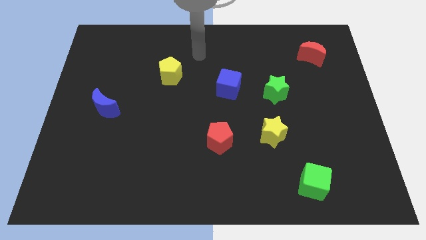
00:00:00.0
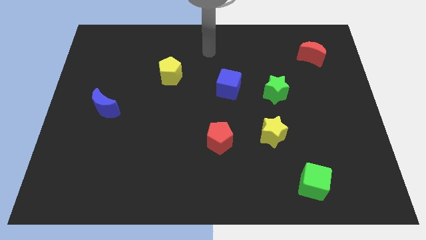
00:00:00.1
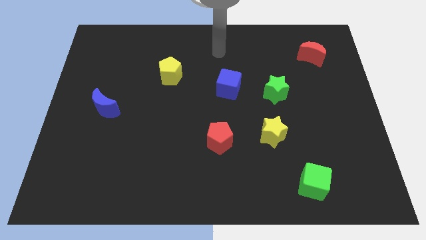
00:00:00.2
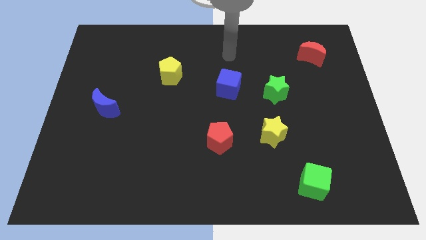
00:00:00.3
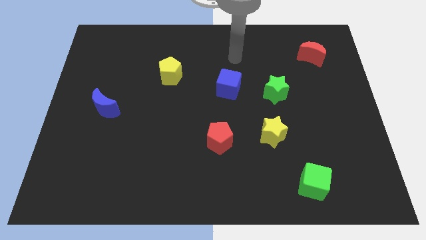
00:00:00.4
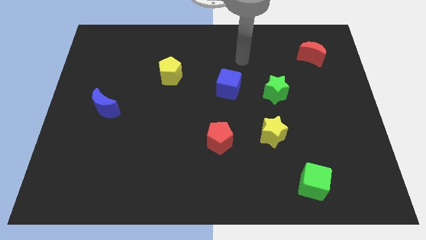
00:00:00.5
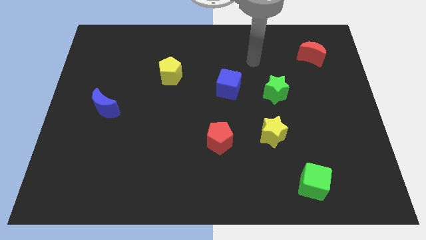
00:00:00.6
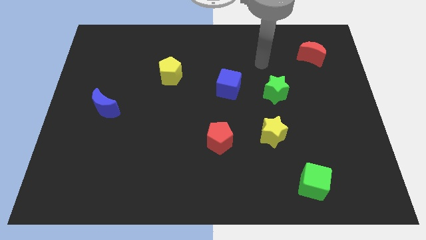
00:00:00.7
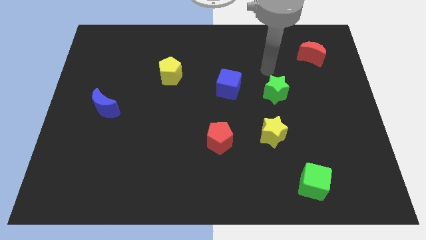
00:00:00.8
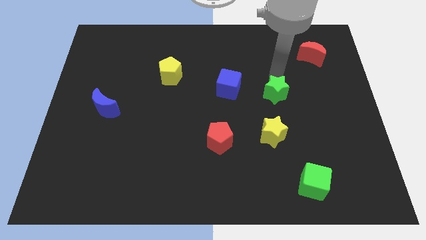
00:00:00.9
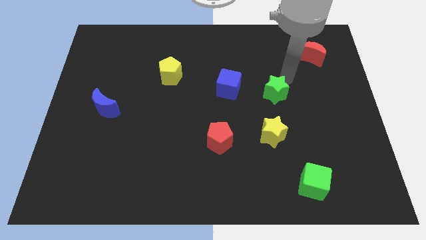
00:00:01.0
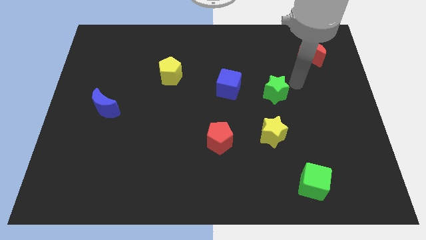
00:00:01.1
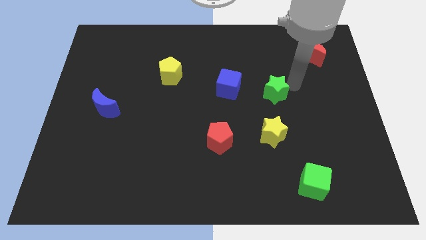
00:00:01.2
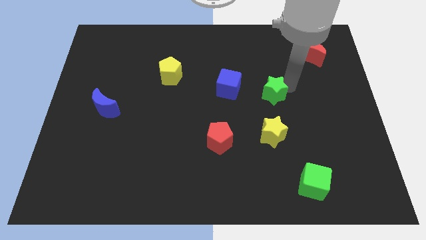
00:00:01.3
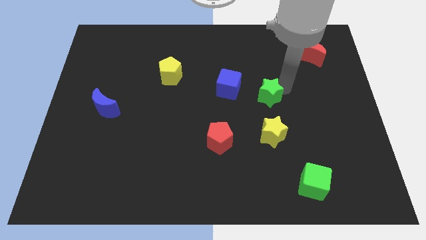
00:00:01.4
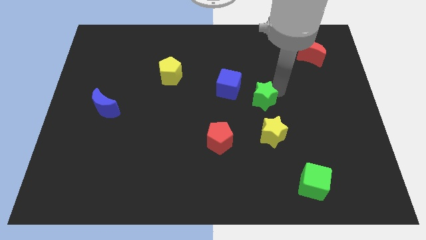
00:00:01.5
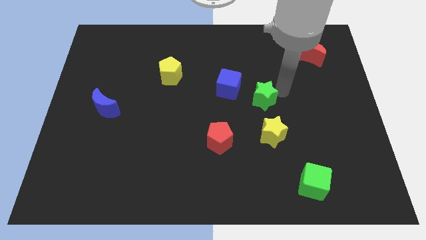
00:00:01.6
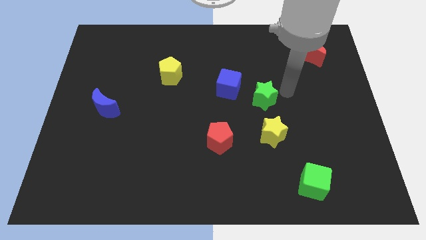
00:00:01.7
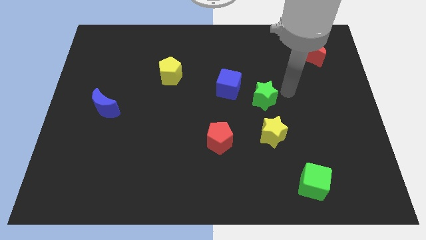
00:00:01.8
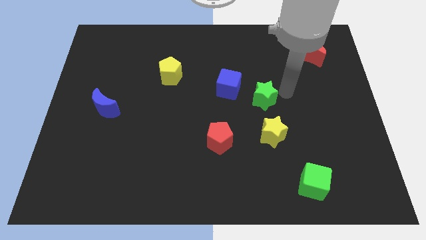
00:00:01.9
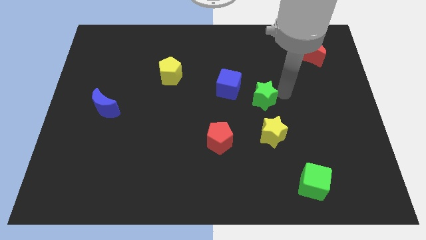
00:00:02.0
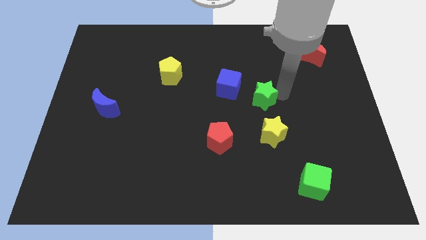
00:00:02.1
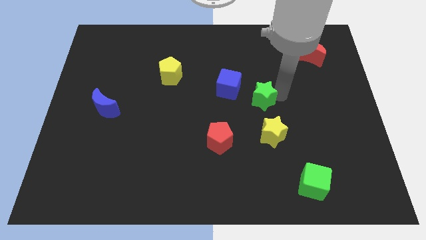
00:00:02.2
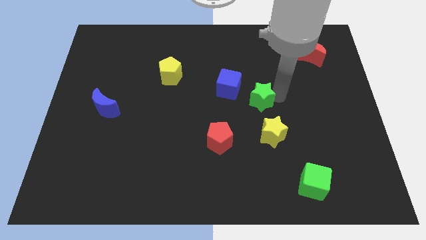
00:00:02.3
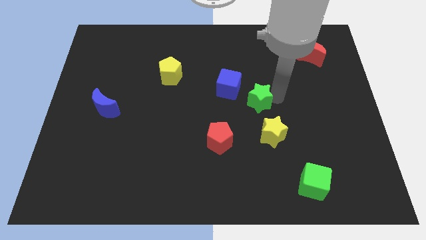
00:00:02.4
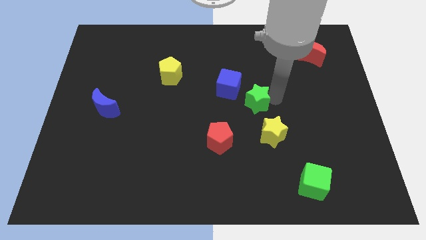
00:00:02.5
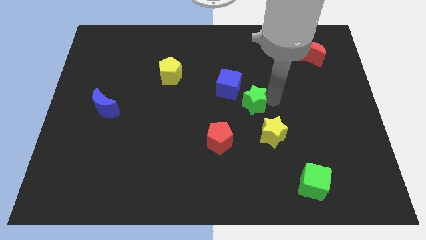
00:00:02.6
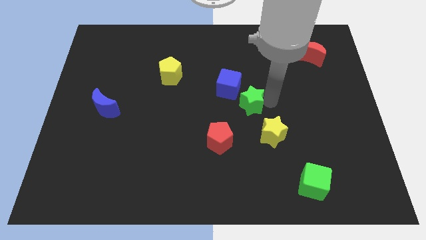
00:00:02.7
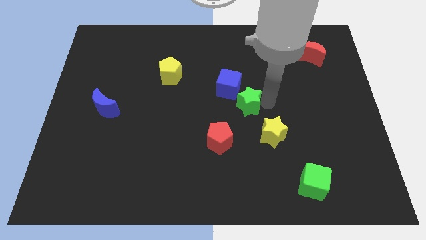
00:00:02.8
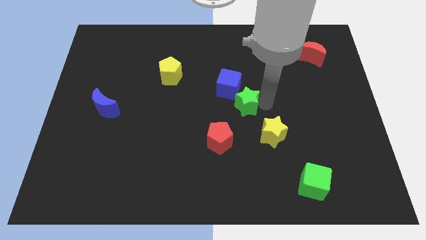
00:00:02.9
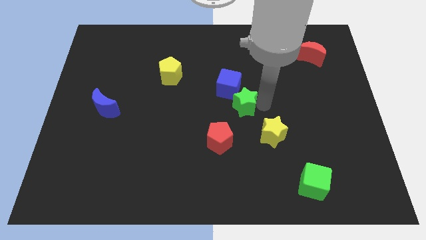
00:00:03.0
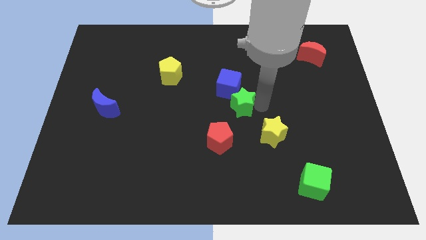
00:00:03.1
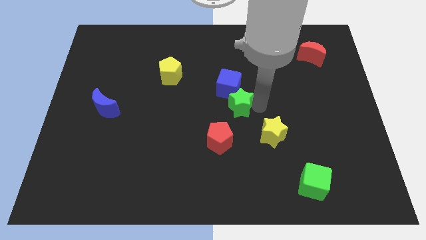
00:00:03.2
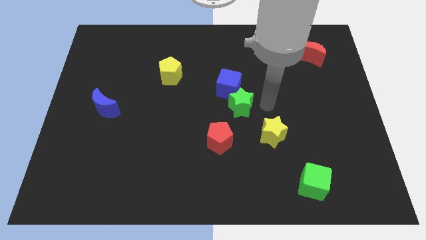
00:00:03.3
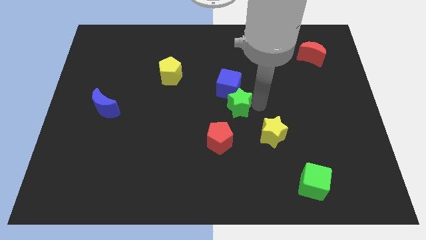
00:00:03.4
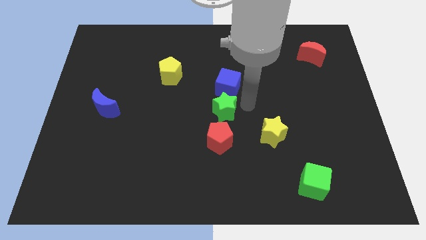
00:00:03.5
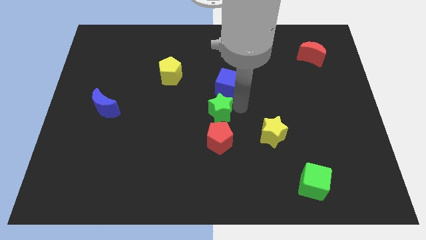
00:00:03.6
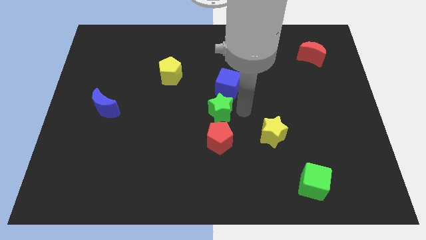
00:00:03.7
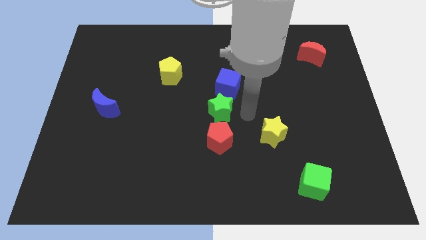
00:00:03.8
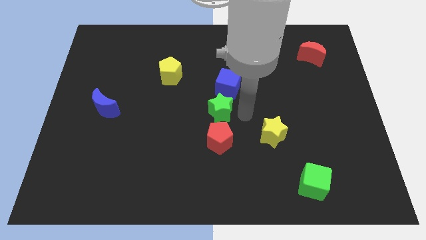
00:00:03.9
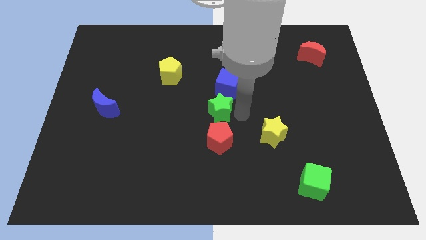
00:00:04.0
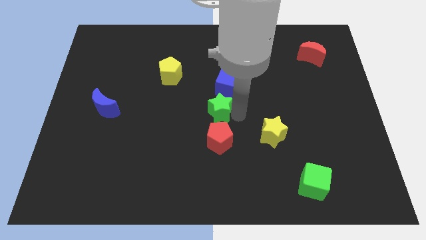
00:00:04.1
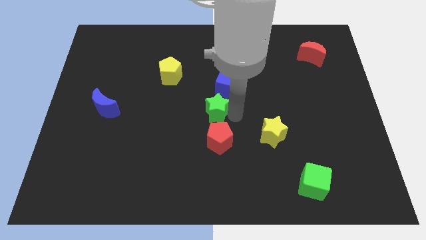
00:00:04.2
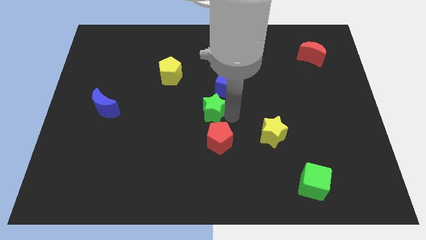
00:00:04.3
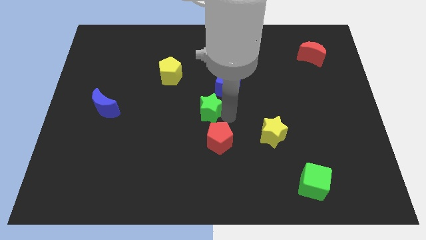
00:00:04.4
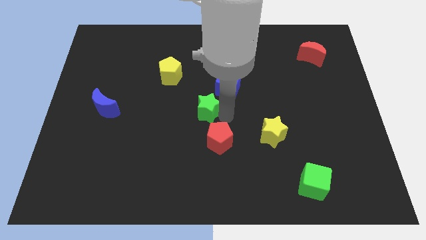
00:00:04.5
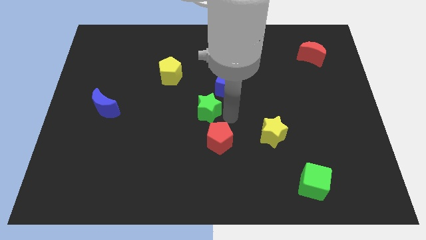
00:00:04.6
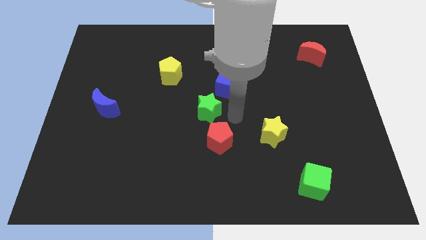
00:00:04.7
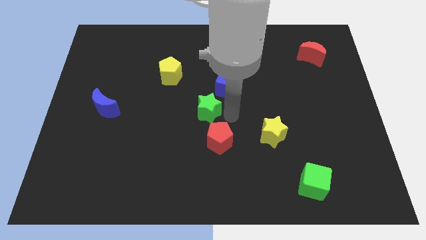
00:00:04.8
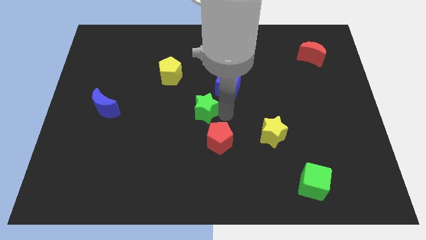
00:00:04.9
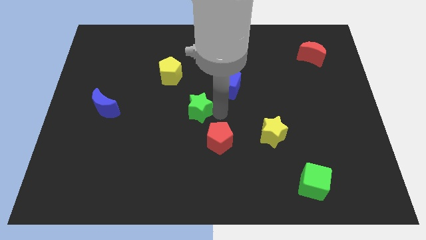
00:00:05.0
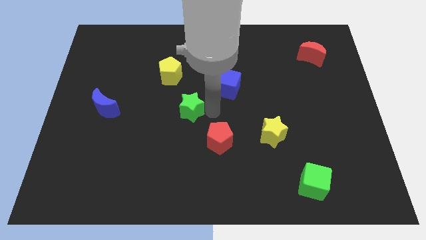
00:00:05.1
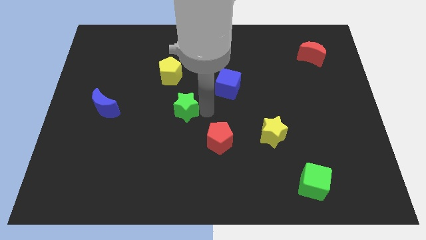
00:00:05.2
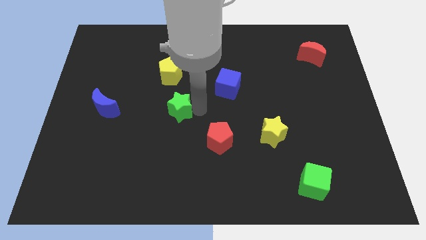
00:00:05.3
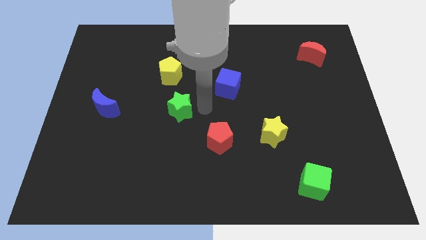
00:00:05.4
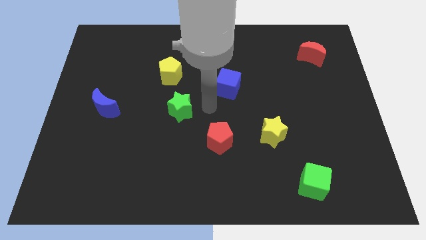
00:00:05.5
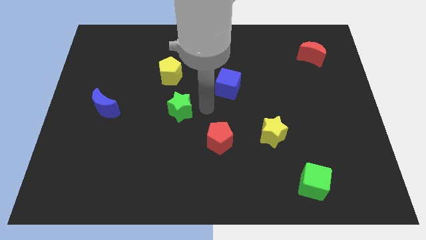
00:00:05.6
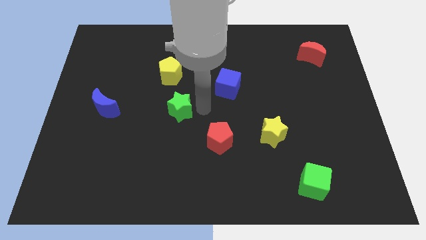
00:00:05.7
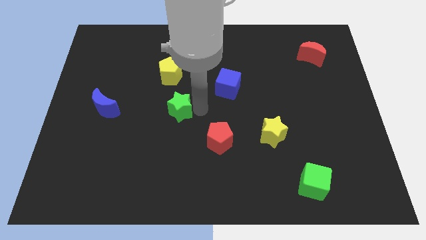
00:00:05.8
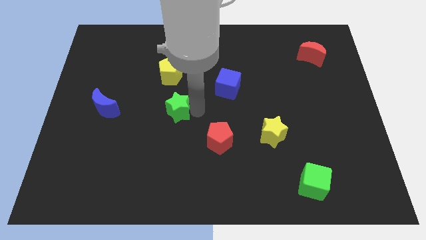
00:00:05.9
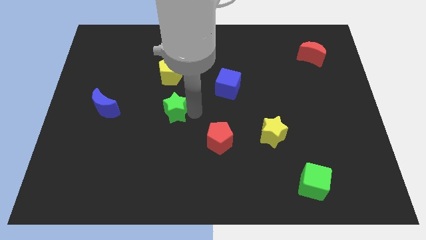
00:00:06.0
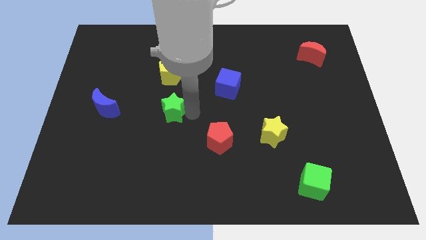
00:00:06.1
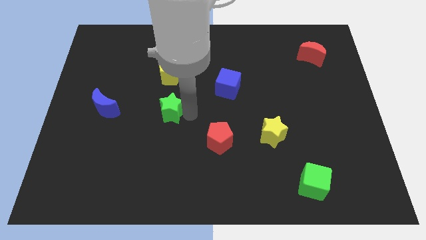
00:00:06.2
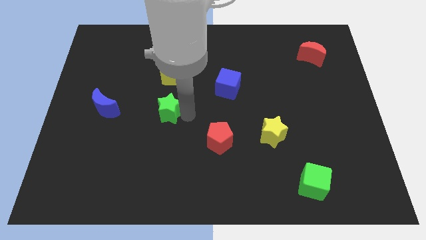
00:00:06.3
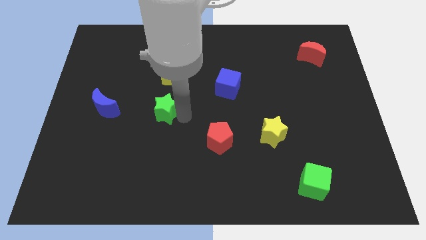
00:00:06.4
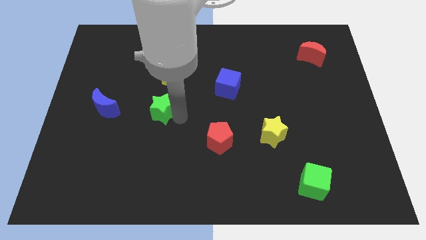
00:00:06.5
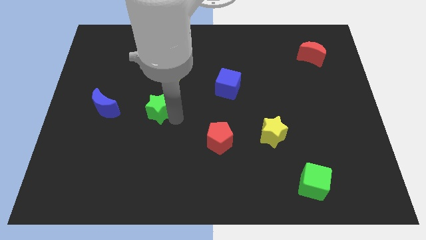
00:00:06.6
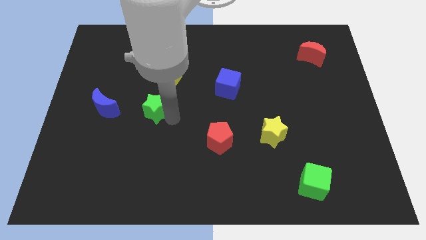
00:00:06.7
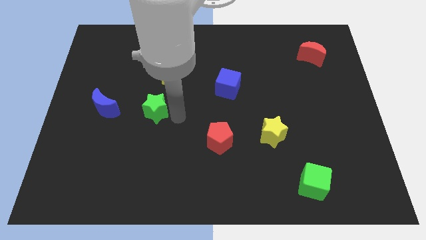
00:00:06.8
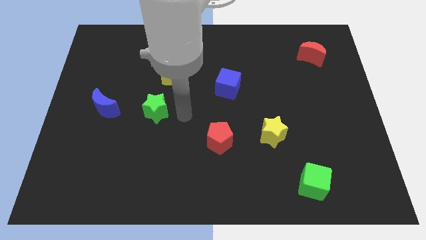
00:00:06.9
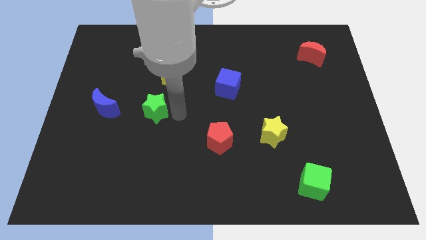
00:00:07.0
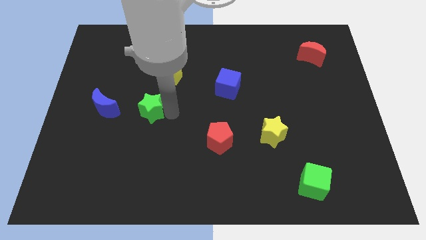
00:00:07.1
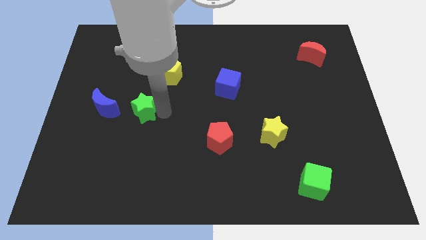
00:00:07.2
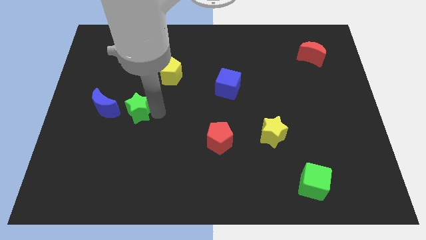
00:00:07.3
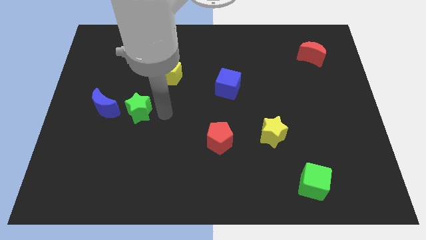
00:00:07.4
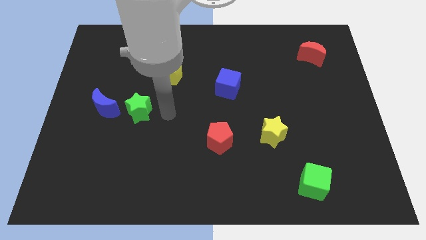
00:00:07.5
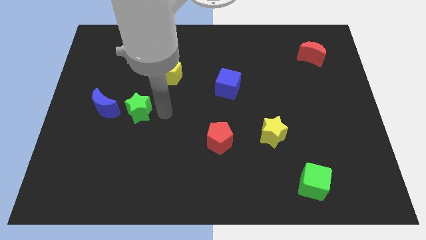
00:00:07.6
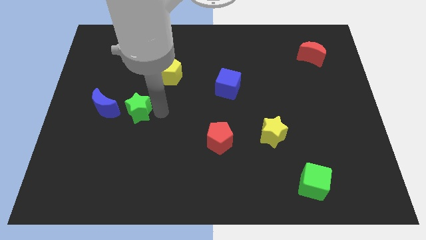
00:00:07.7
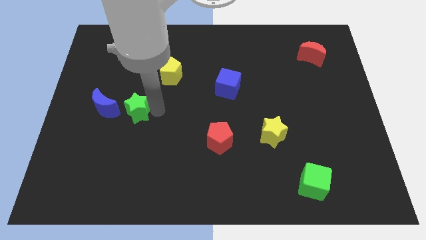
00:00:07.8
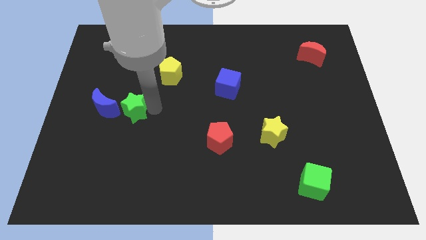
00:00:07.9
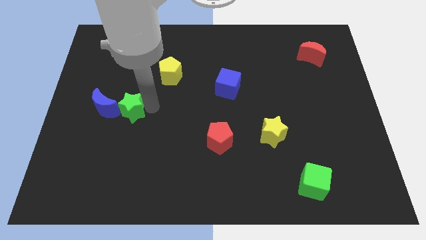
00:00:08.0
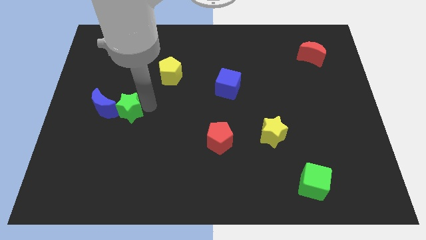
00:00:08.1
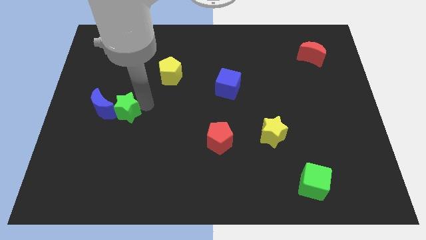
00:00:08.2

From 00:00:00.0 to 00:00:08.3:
push the green star towards the blue moon
